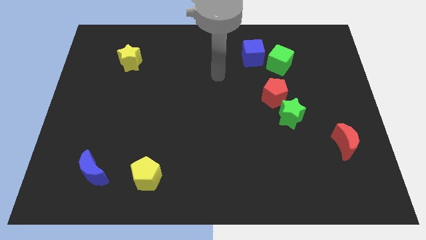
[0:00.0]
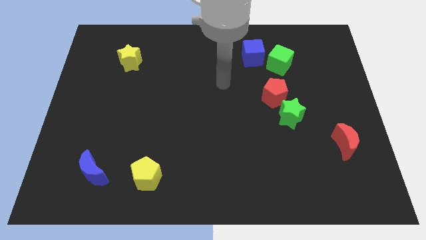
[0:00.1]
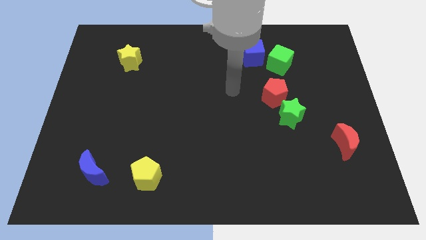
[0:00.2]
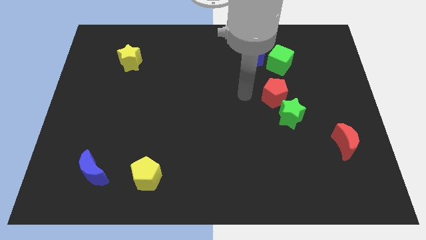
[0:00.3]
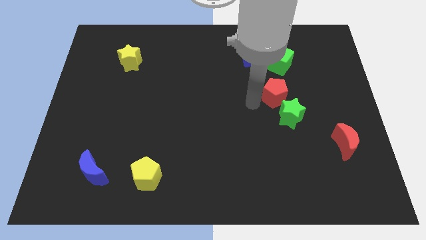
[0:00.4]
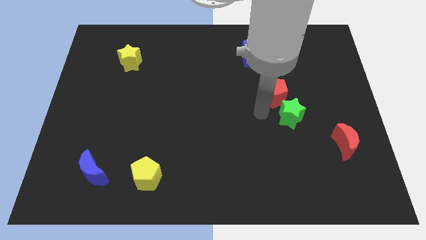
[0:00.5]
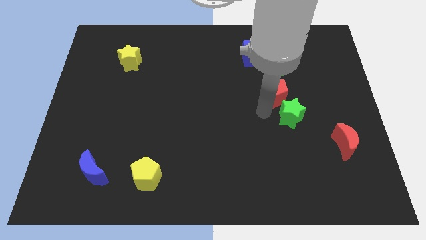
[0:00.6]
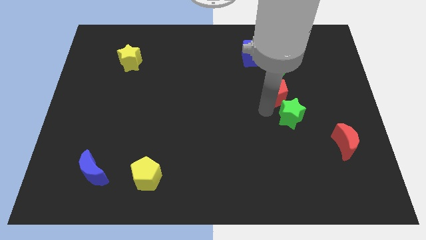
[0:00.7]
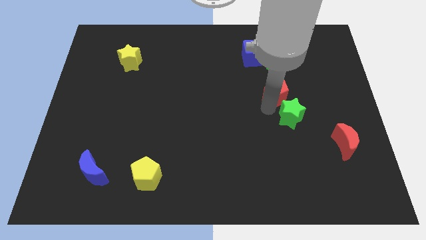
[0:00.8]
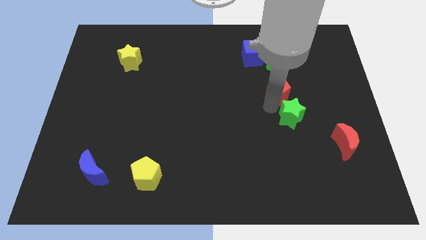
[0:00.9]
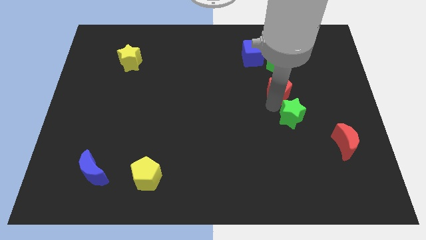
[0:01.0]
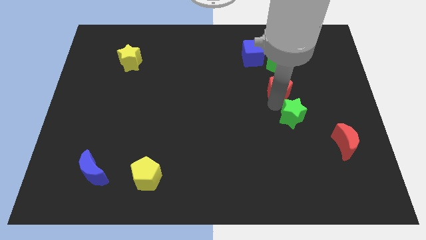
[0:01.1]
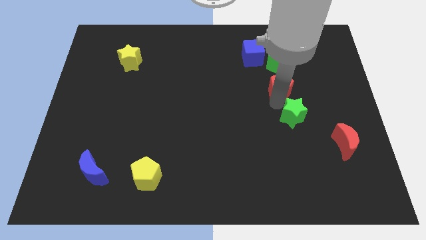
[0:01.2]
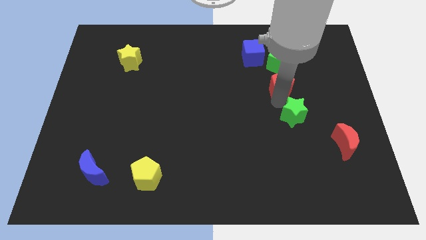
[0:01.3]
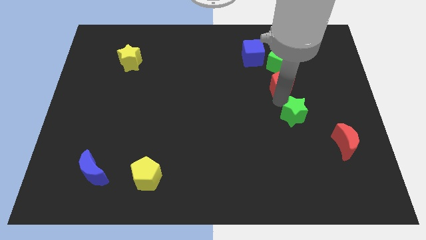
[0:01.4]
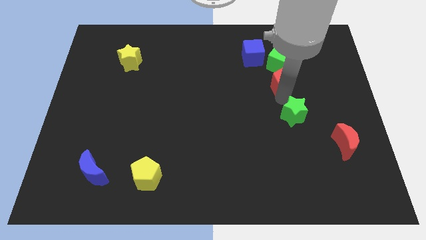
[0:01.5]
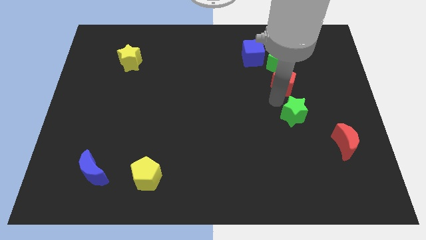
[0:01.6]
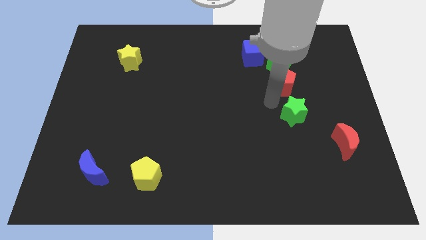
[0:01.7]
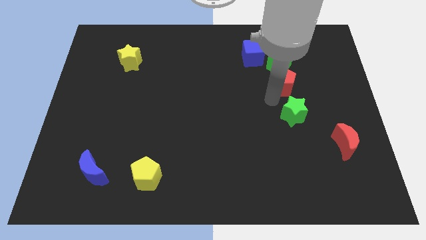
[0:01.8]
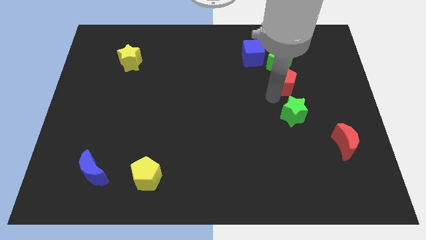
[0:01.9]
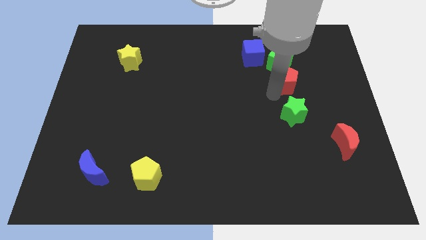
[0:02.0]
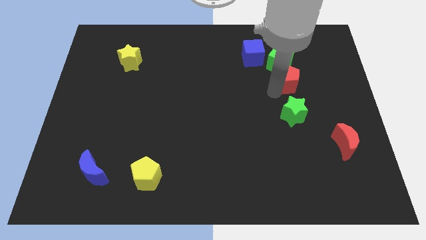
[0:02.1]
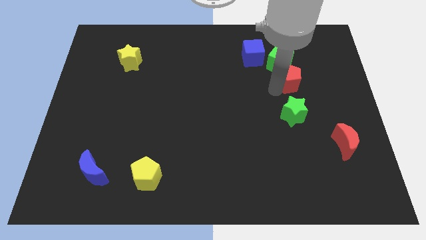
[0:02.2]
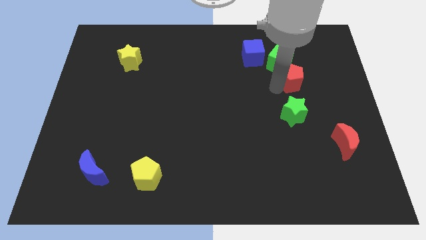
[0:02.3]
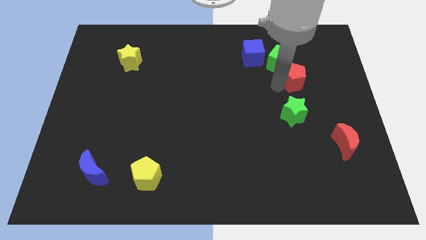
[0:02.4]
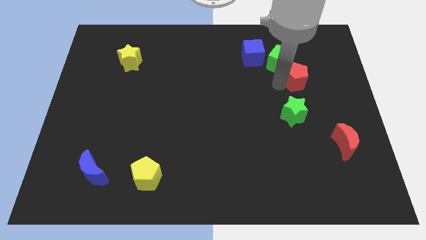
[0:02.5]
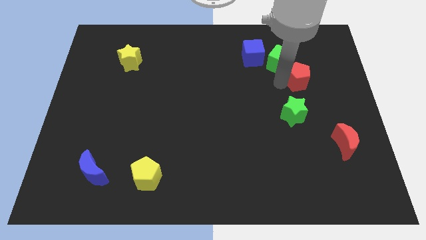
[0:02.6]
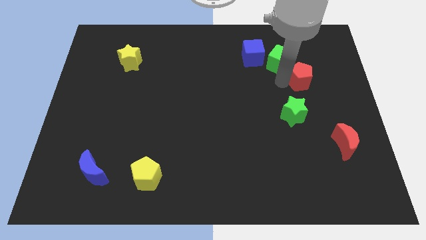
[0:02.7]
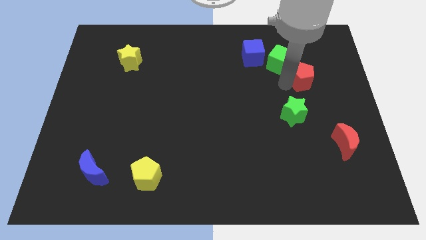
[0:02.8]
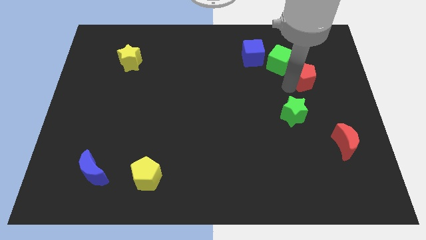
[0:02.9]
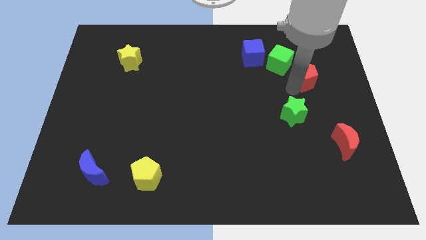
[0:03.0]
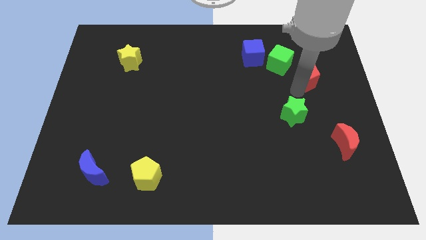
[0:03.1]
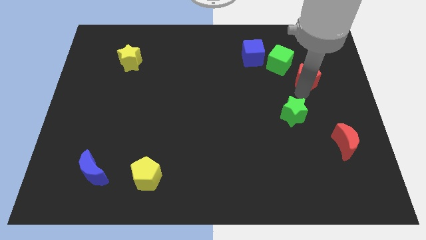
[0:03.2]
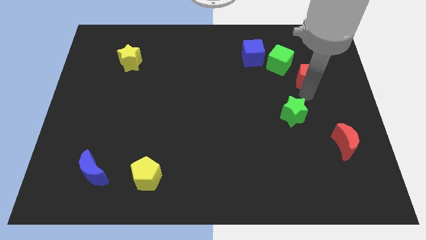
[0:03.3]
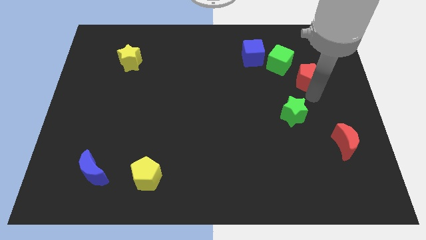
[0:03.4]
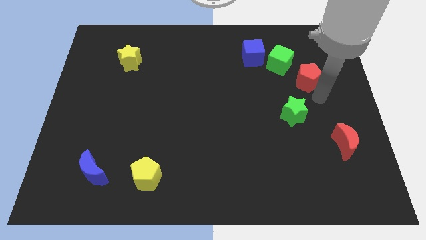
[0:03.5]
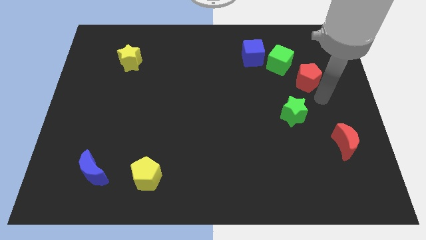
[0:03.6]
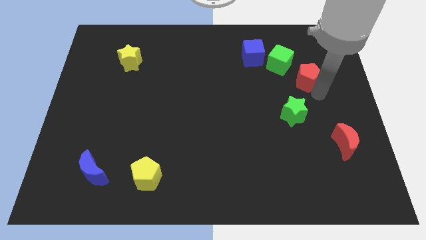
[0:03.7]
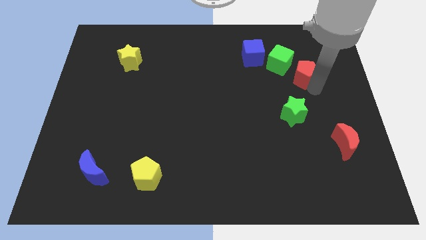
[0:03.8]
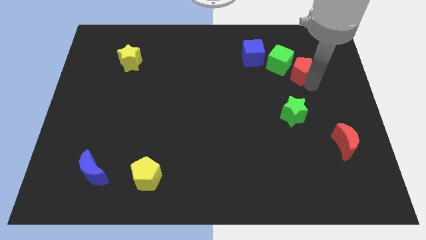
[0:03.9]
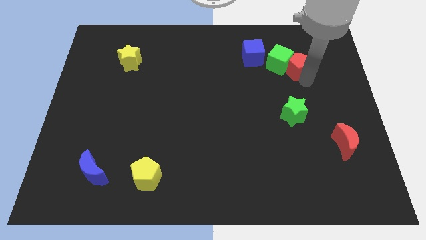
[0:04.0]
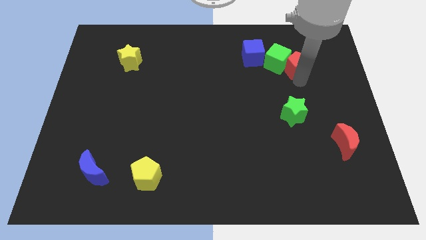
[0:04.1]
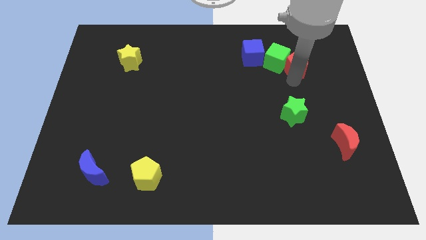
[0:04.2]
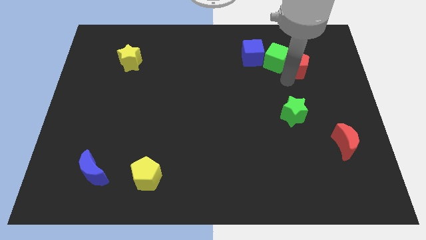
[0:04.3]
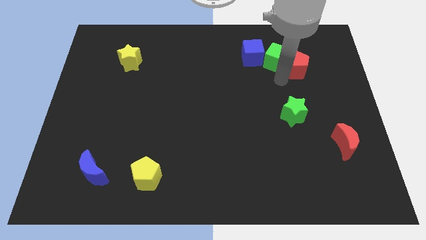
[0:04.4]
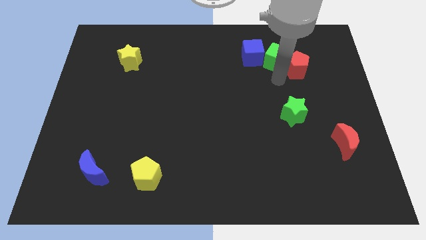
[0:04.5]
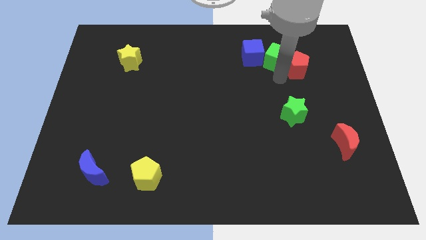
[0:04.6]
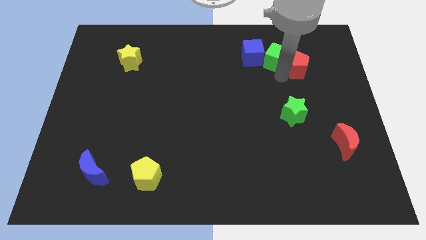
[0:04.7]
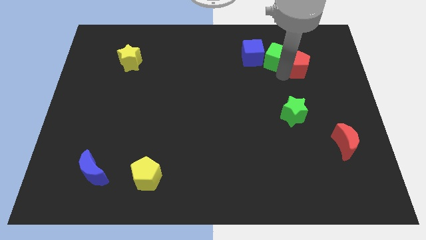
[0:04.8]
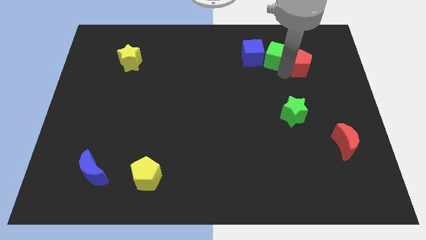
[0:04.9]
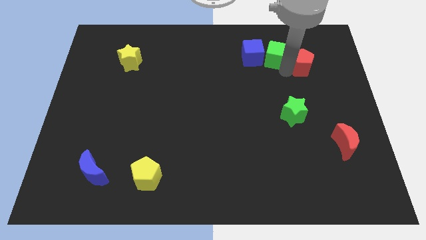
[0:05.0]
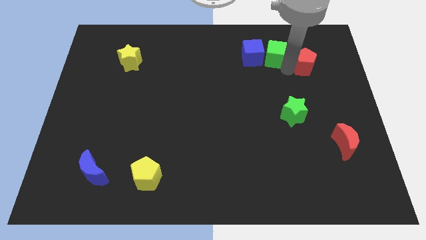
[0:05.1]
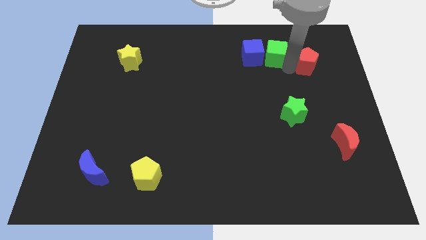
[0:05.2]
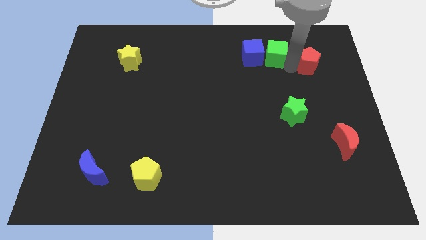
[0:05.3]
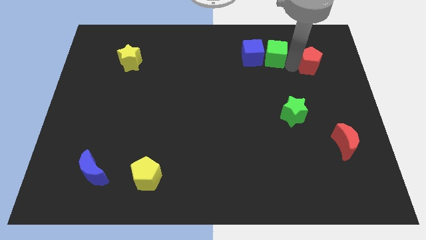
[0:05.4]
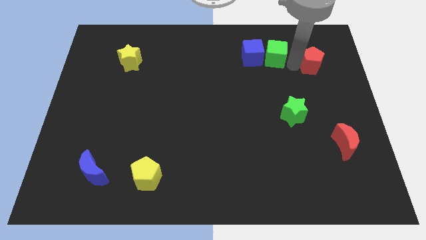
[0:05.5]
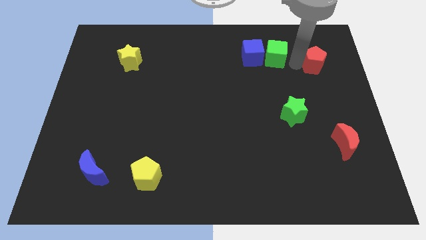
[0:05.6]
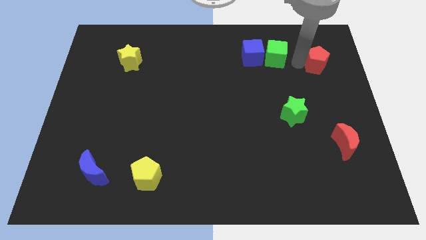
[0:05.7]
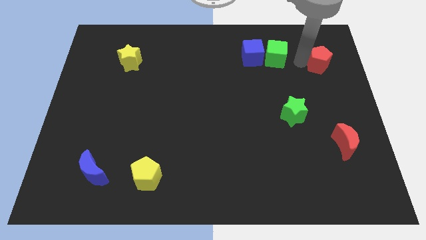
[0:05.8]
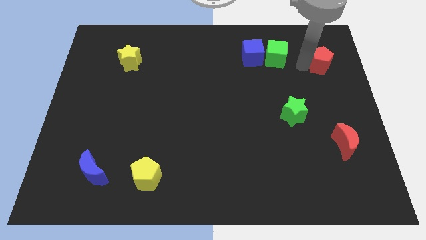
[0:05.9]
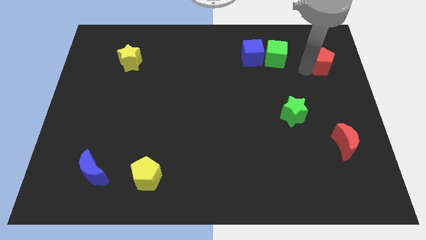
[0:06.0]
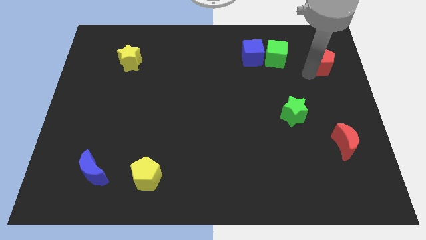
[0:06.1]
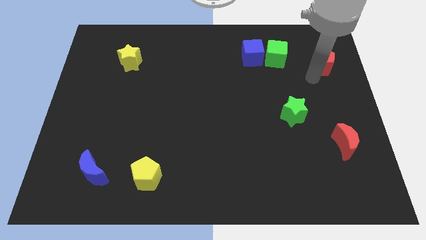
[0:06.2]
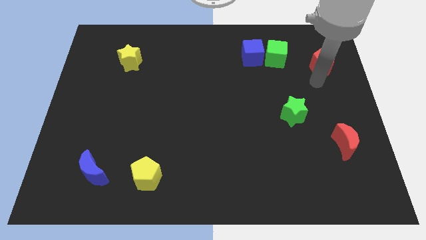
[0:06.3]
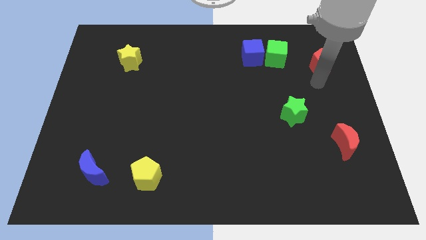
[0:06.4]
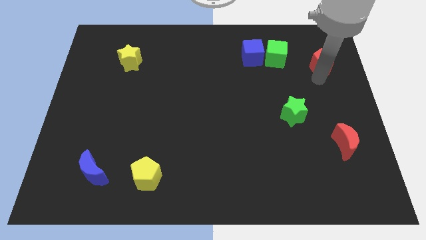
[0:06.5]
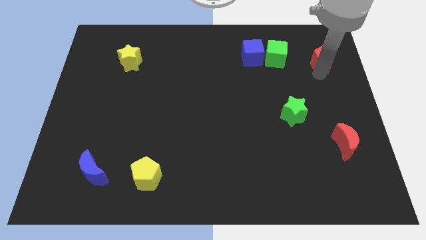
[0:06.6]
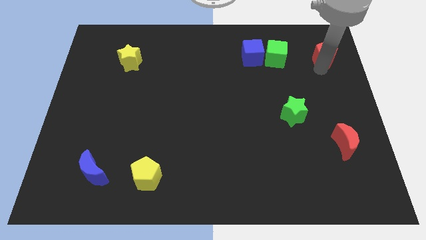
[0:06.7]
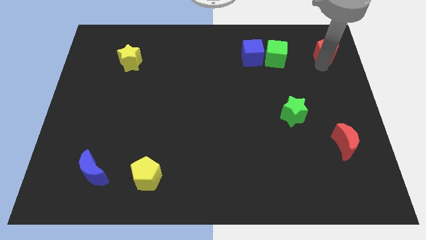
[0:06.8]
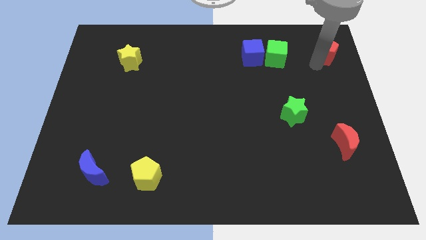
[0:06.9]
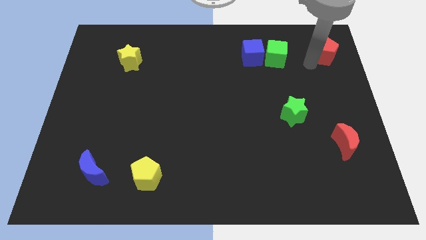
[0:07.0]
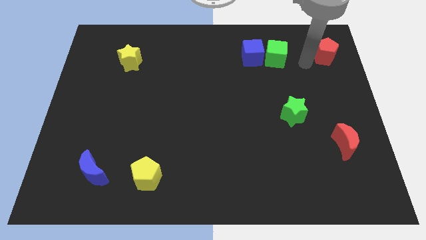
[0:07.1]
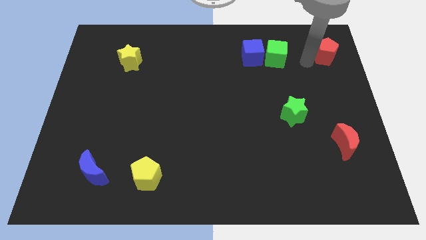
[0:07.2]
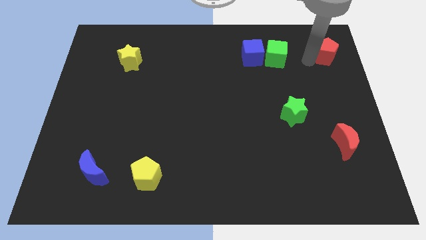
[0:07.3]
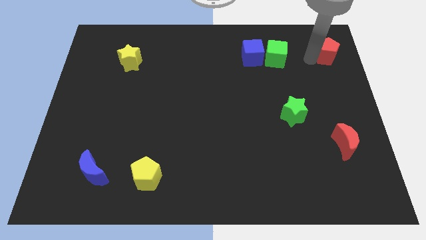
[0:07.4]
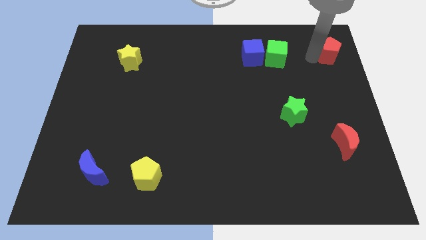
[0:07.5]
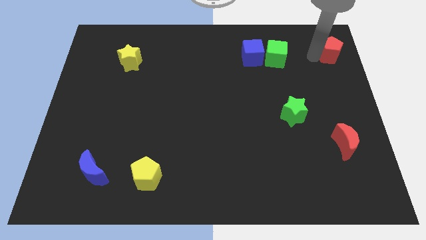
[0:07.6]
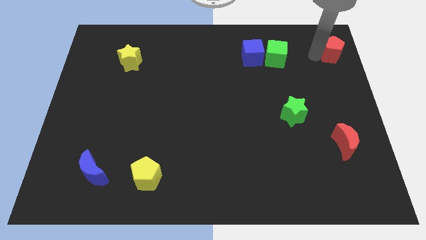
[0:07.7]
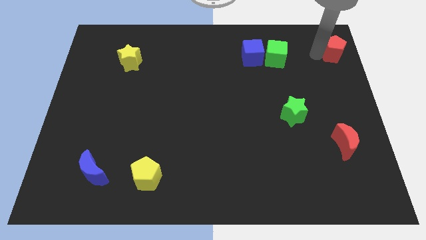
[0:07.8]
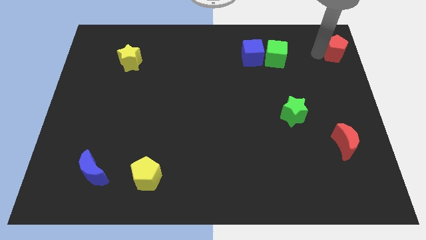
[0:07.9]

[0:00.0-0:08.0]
put the red pentagon to the upper right corner
